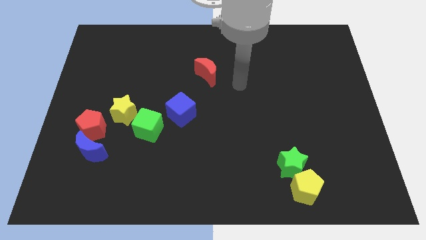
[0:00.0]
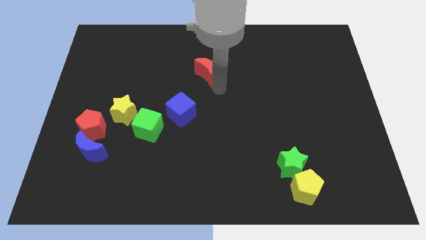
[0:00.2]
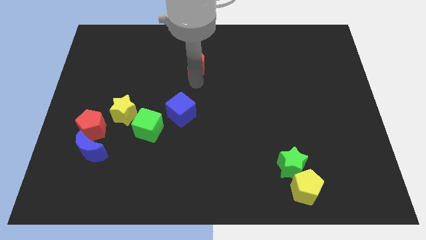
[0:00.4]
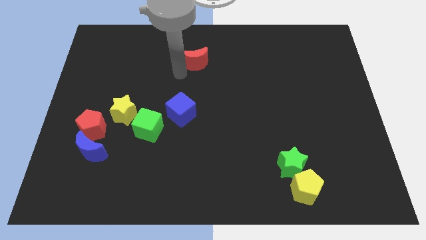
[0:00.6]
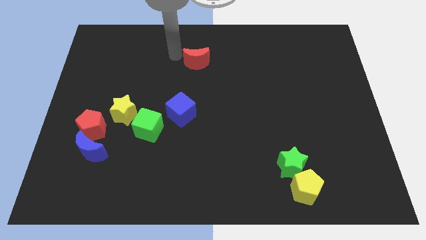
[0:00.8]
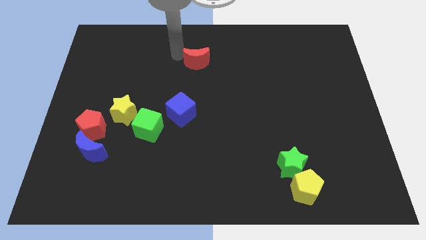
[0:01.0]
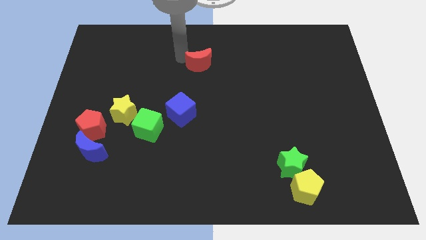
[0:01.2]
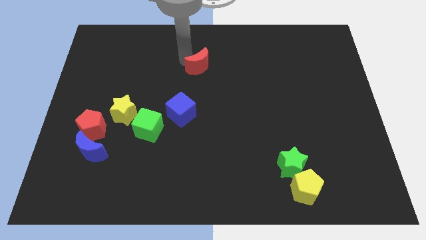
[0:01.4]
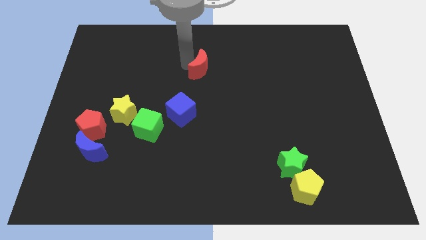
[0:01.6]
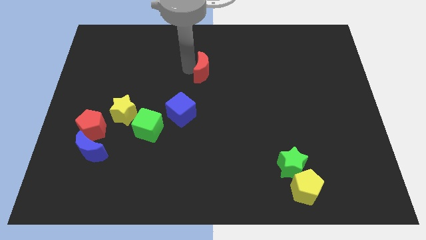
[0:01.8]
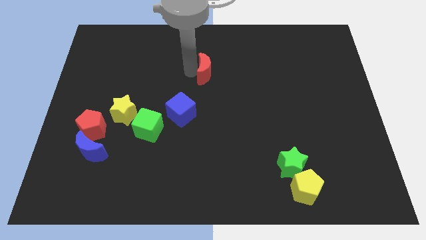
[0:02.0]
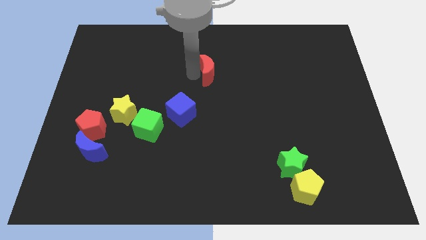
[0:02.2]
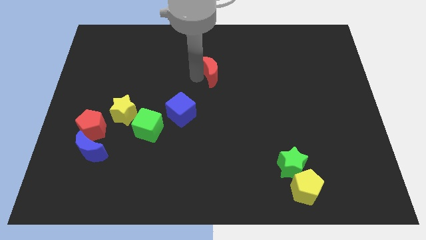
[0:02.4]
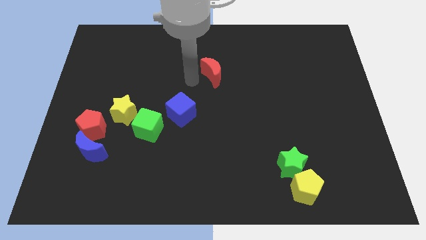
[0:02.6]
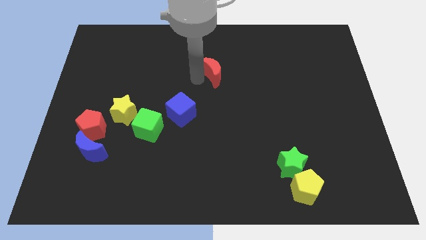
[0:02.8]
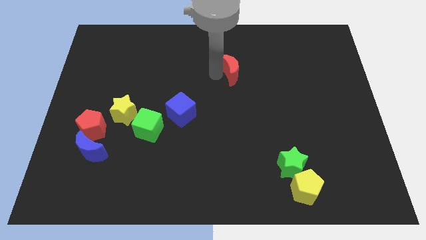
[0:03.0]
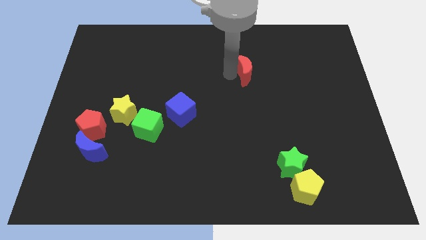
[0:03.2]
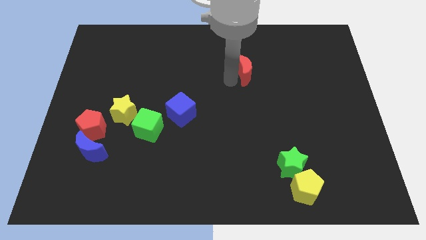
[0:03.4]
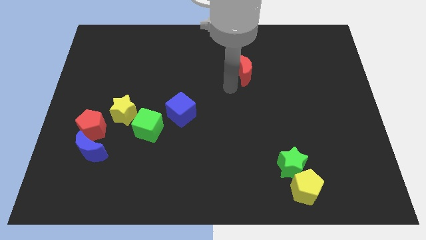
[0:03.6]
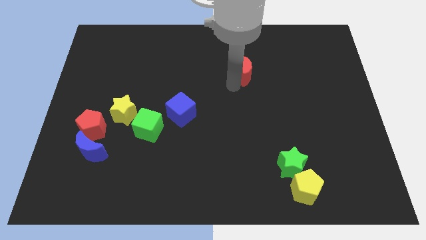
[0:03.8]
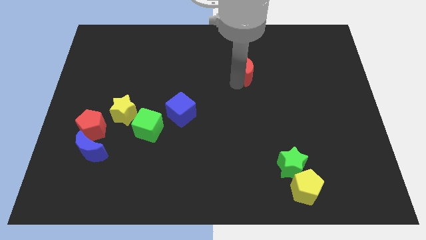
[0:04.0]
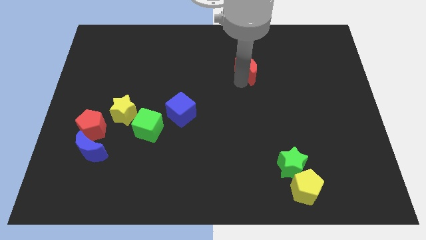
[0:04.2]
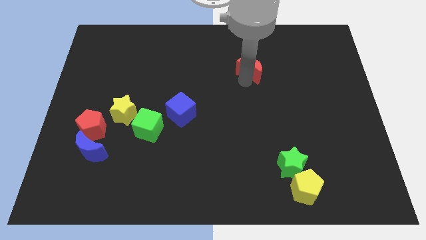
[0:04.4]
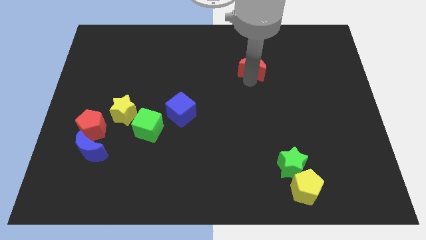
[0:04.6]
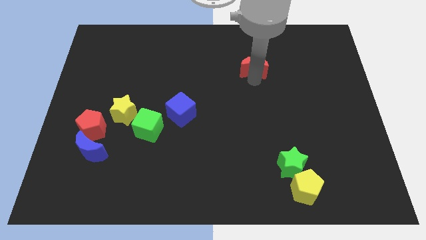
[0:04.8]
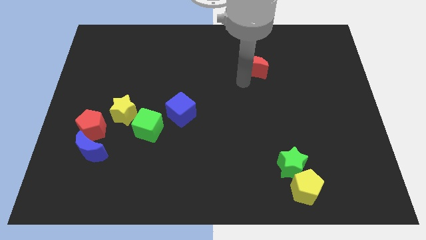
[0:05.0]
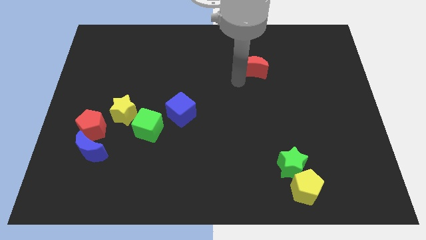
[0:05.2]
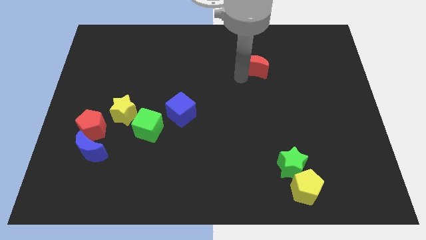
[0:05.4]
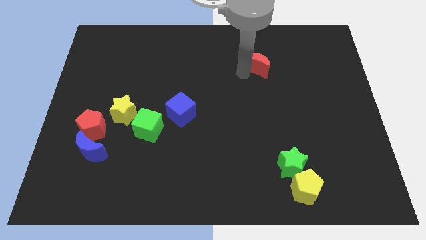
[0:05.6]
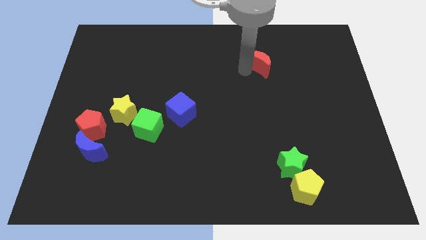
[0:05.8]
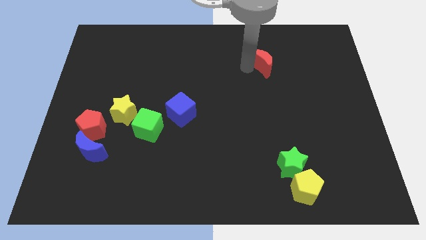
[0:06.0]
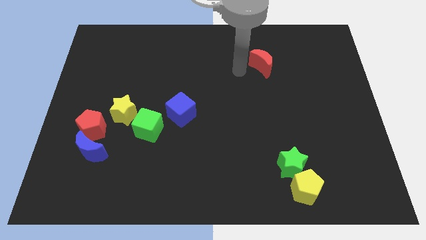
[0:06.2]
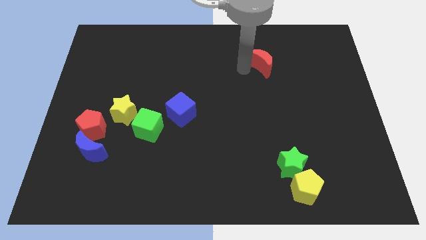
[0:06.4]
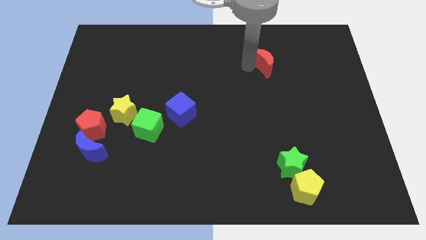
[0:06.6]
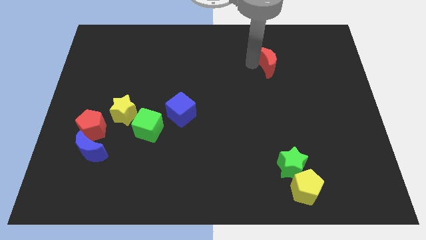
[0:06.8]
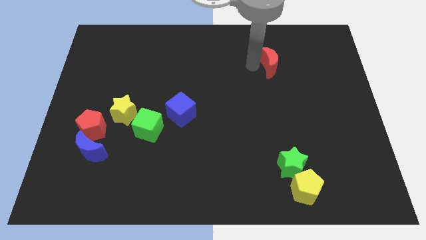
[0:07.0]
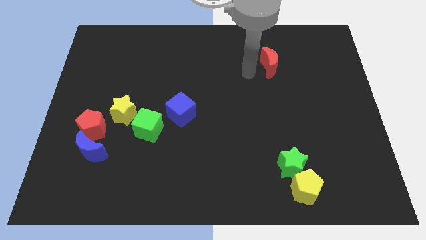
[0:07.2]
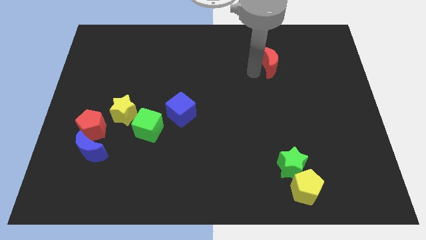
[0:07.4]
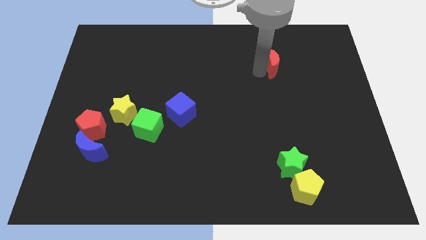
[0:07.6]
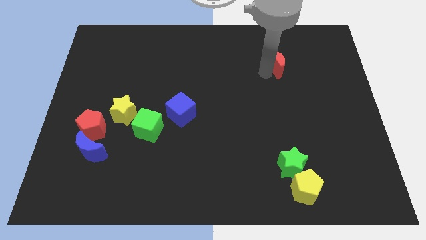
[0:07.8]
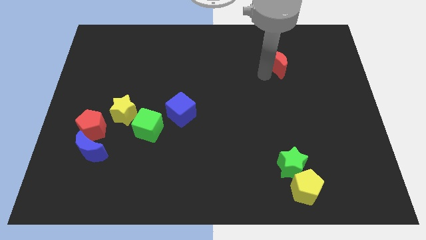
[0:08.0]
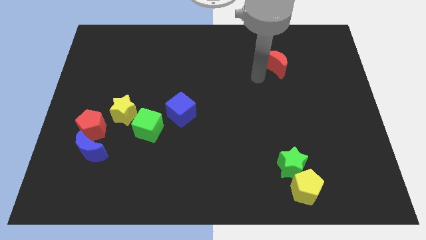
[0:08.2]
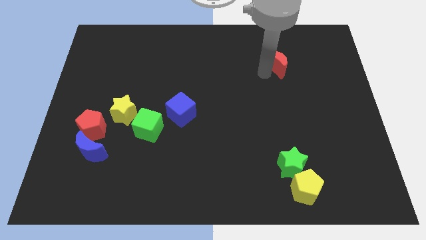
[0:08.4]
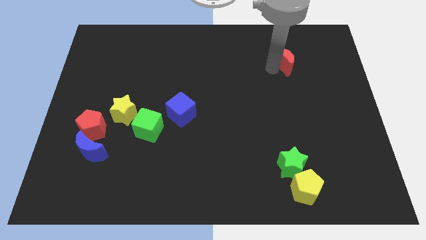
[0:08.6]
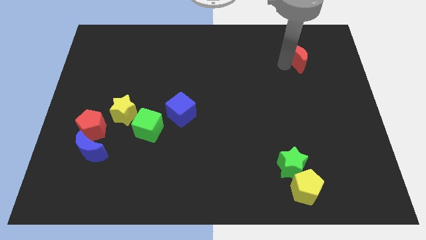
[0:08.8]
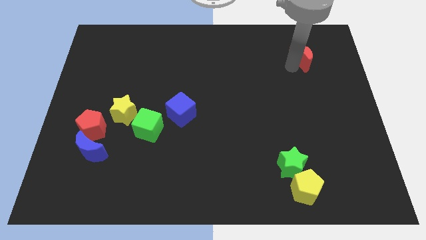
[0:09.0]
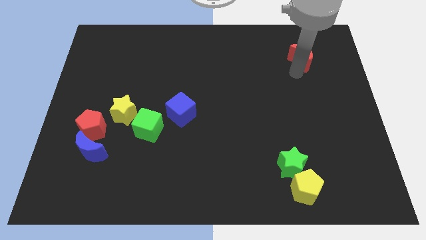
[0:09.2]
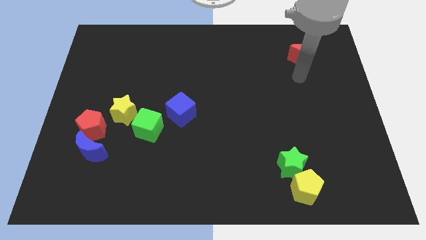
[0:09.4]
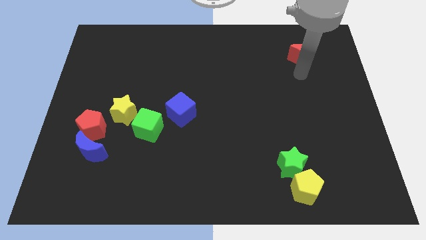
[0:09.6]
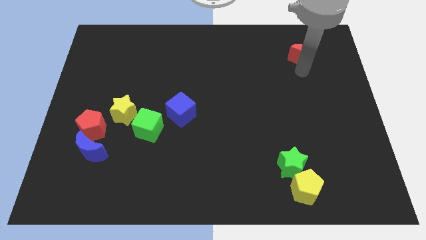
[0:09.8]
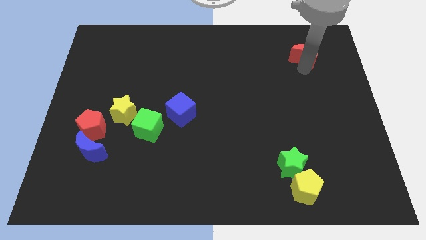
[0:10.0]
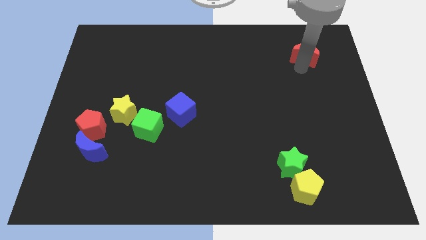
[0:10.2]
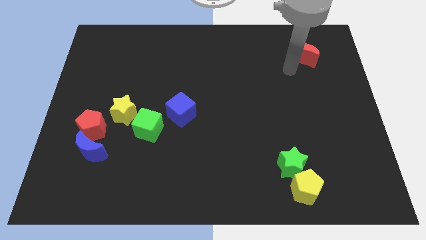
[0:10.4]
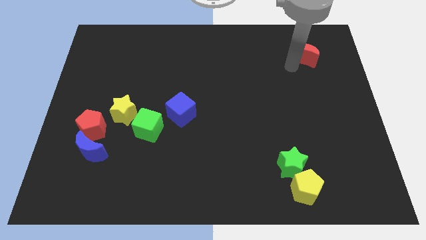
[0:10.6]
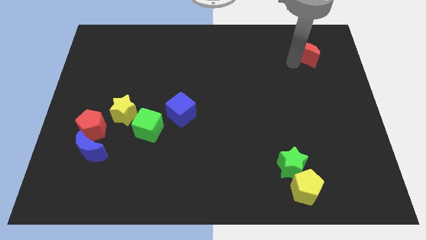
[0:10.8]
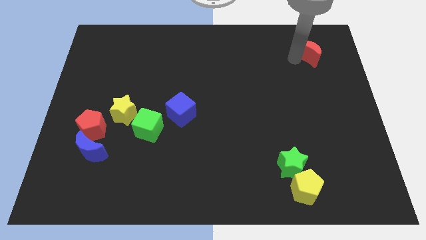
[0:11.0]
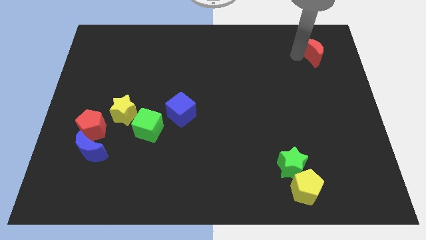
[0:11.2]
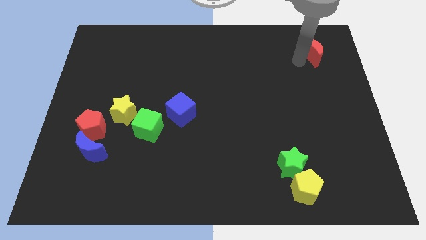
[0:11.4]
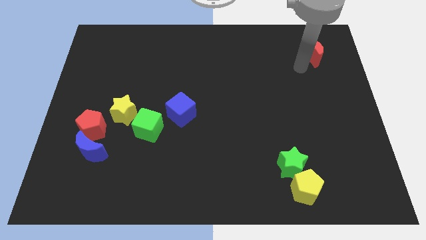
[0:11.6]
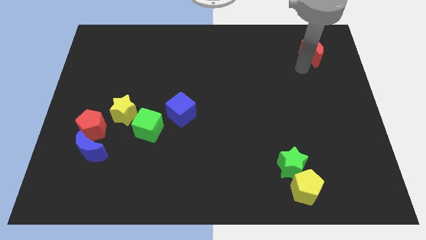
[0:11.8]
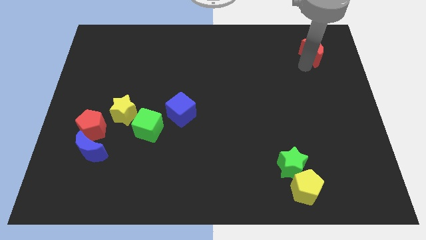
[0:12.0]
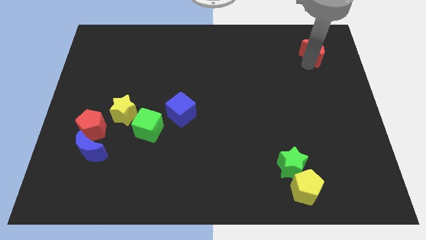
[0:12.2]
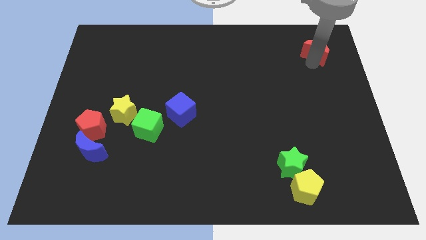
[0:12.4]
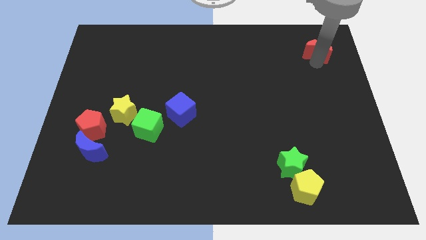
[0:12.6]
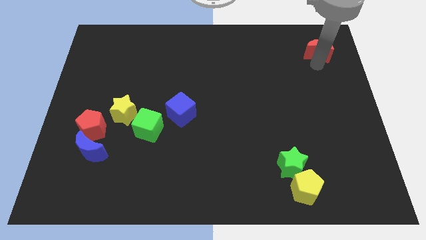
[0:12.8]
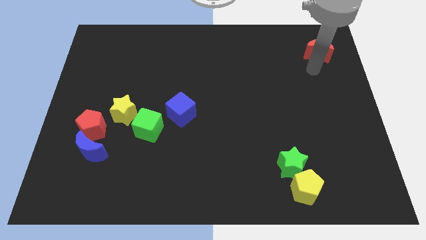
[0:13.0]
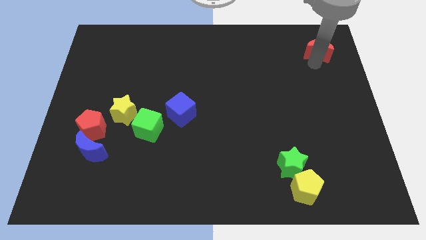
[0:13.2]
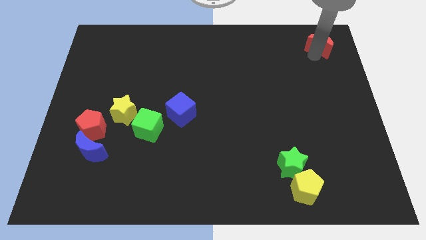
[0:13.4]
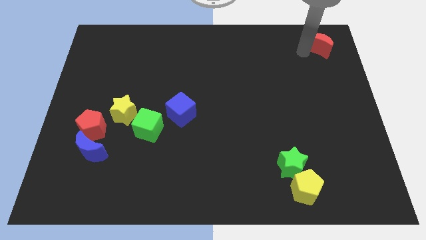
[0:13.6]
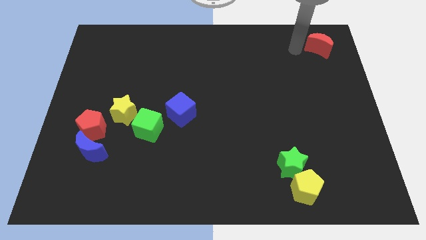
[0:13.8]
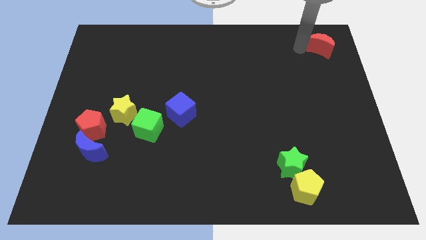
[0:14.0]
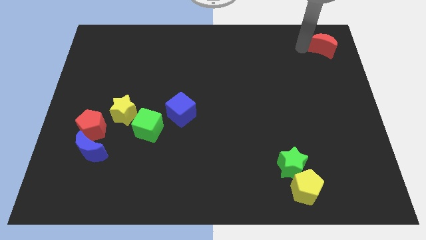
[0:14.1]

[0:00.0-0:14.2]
slide the red moon to the top right of the board
